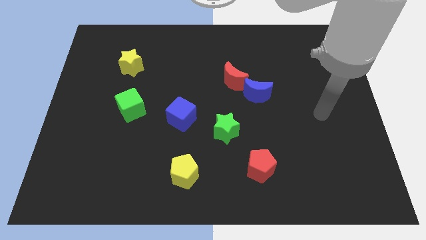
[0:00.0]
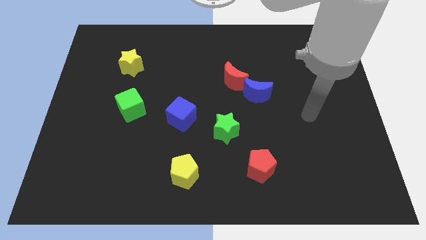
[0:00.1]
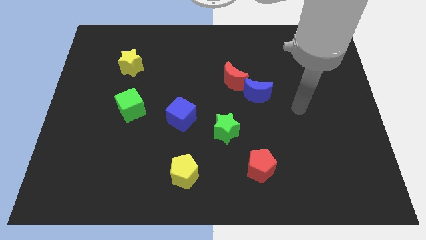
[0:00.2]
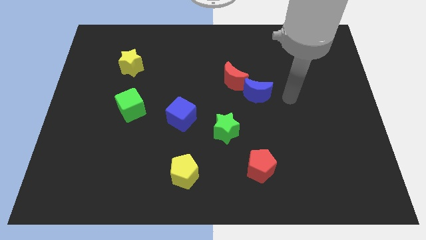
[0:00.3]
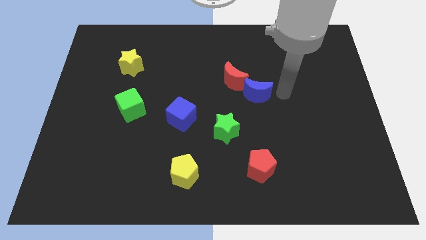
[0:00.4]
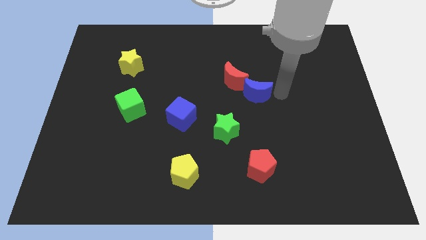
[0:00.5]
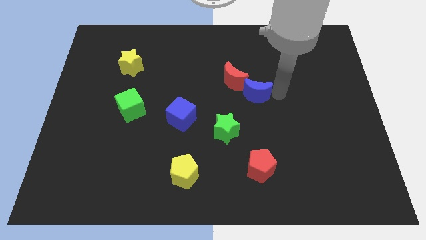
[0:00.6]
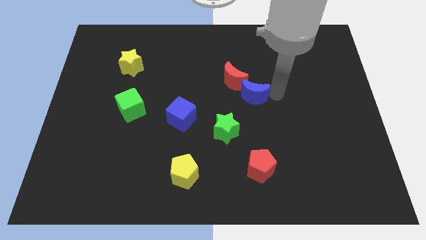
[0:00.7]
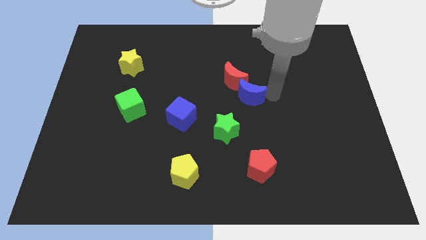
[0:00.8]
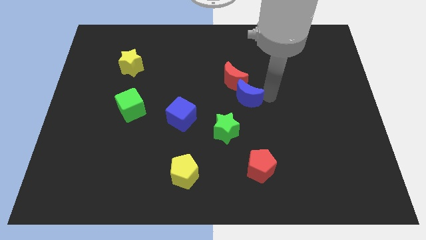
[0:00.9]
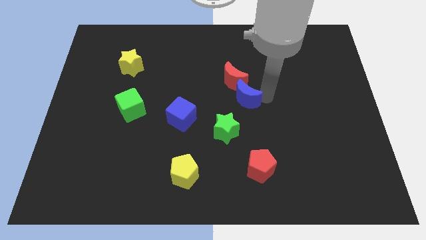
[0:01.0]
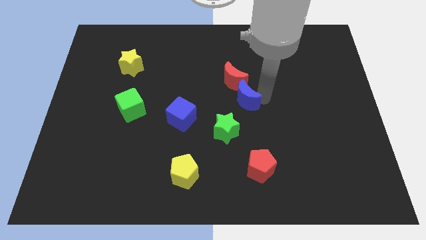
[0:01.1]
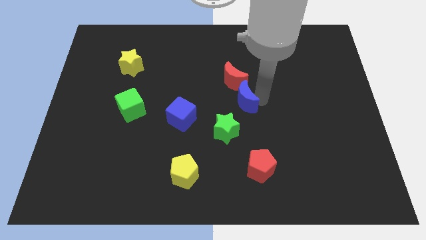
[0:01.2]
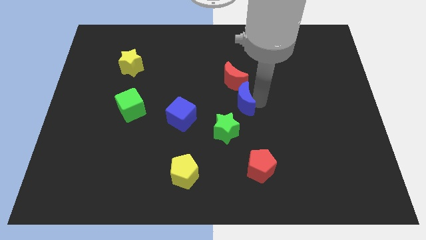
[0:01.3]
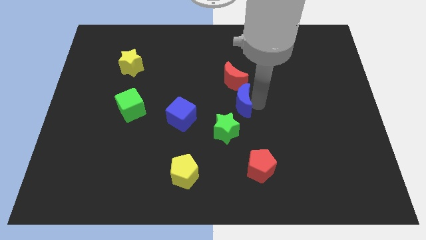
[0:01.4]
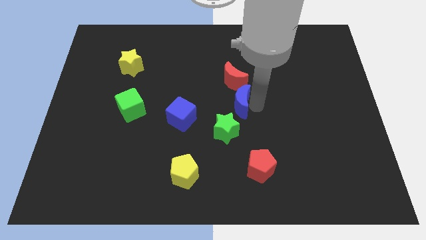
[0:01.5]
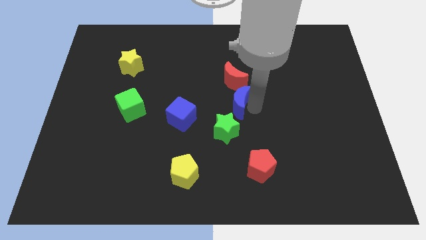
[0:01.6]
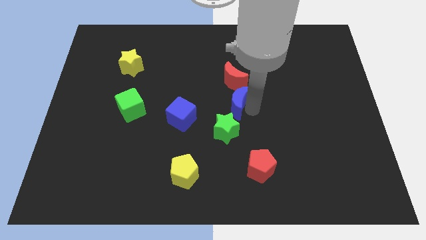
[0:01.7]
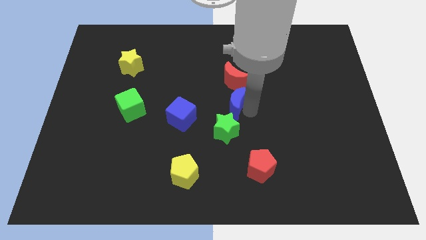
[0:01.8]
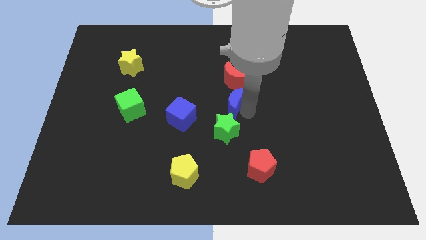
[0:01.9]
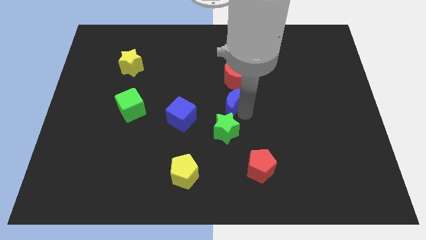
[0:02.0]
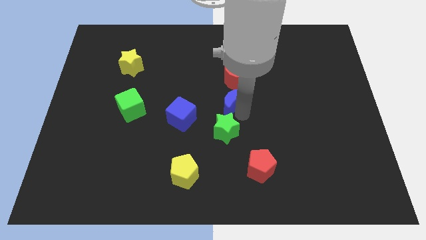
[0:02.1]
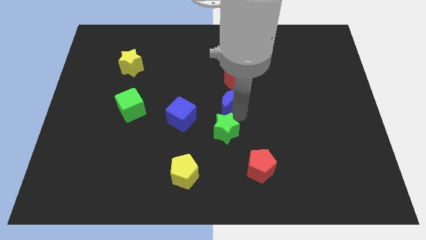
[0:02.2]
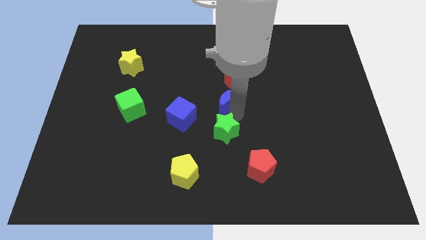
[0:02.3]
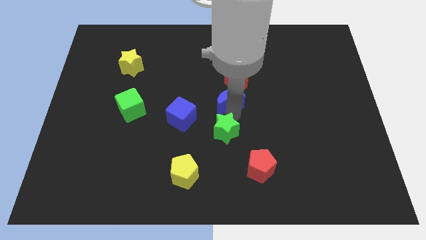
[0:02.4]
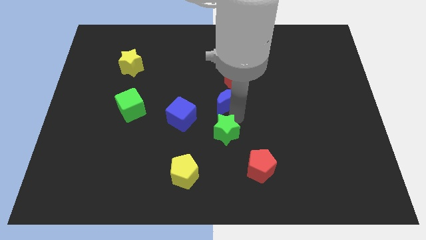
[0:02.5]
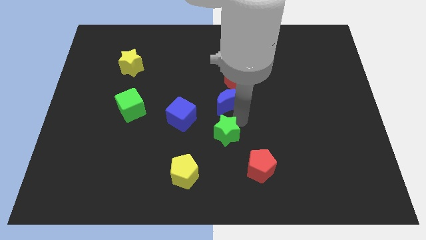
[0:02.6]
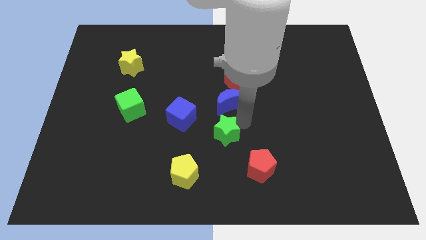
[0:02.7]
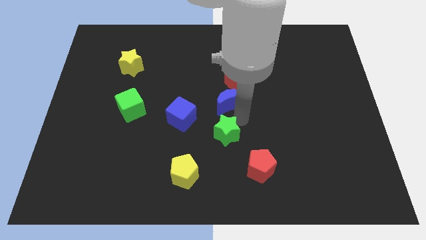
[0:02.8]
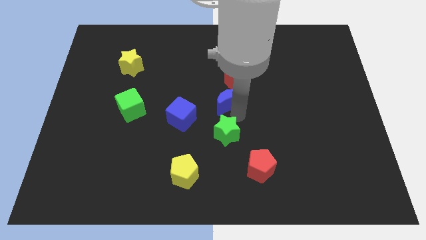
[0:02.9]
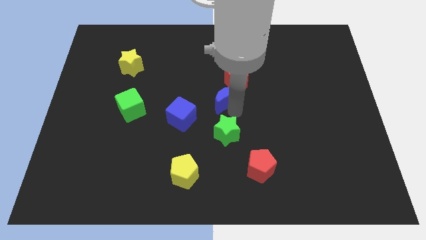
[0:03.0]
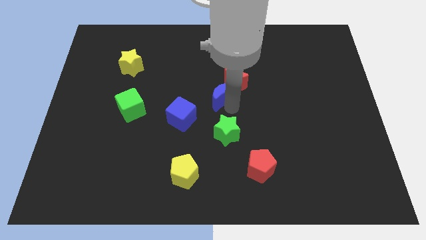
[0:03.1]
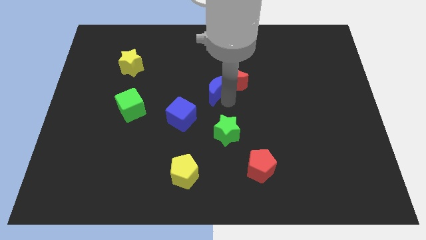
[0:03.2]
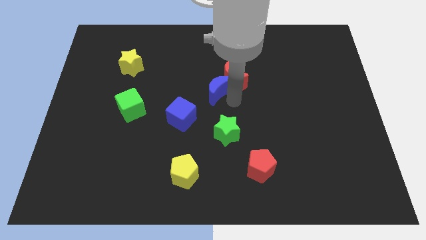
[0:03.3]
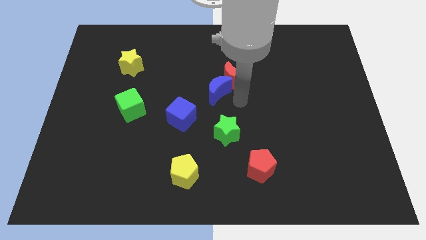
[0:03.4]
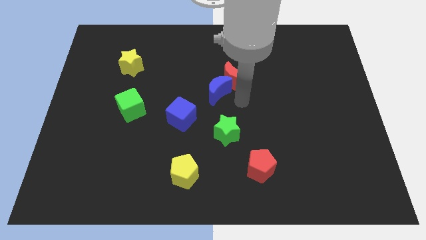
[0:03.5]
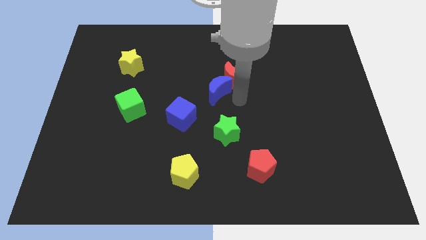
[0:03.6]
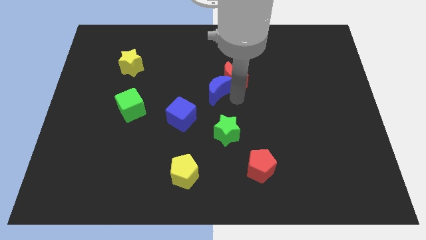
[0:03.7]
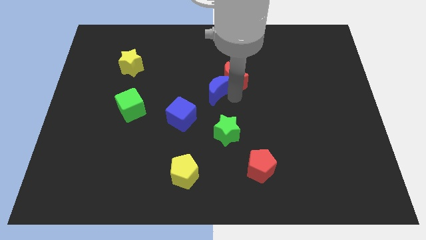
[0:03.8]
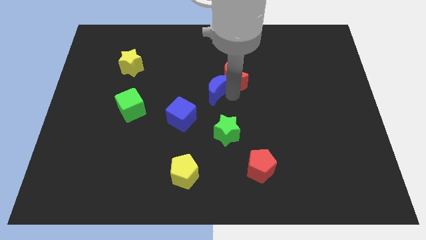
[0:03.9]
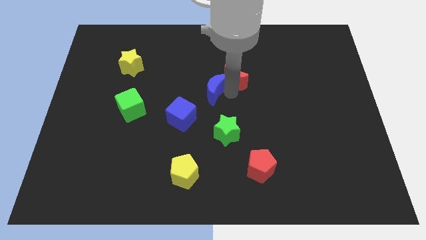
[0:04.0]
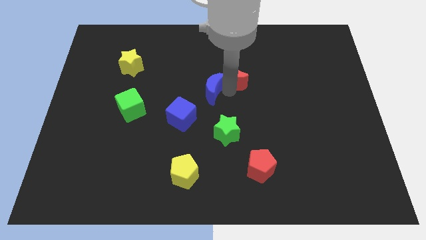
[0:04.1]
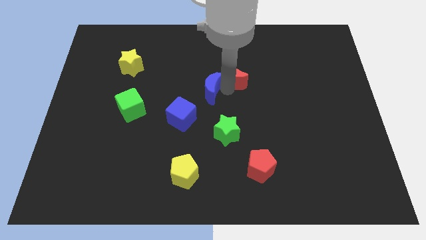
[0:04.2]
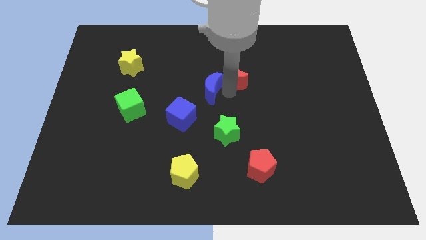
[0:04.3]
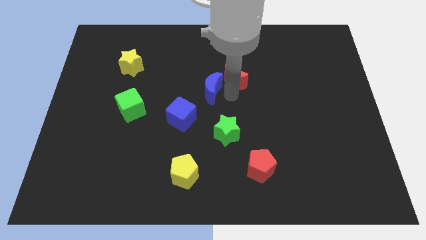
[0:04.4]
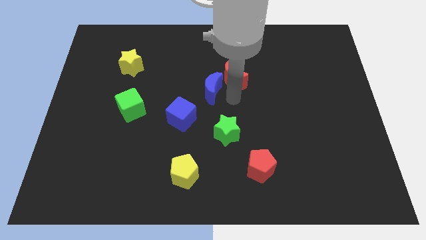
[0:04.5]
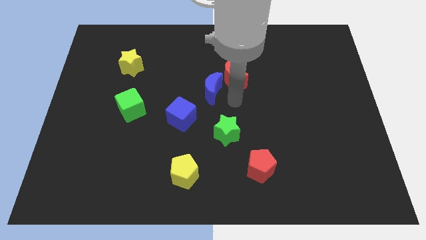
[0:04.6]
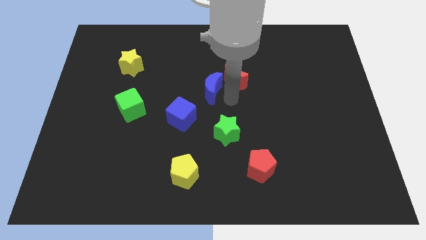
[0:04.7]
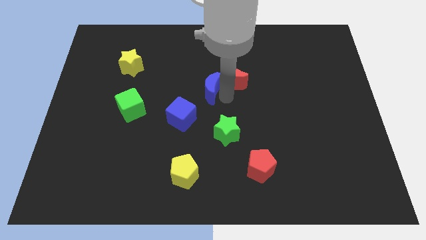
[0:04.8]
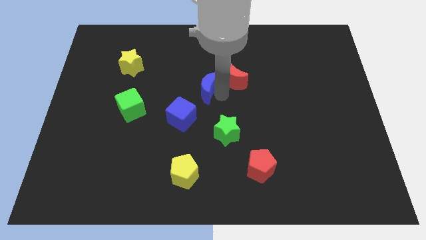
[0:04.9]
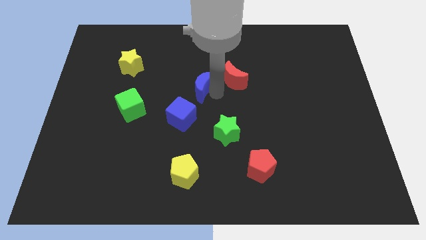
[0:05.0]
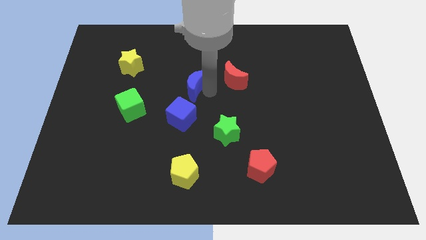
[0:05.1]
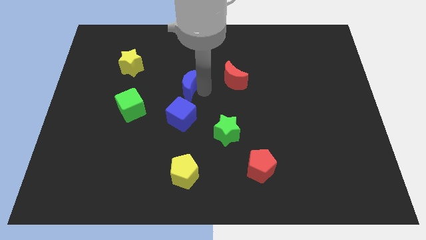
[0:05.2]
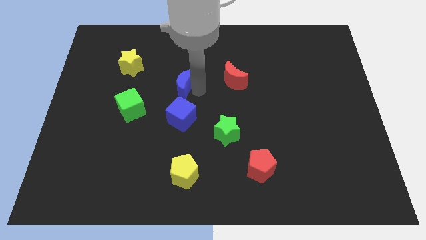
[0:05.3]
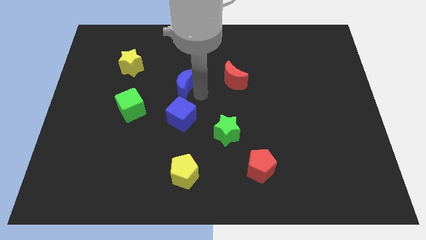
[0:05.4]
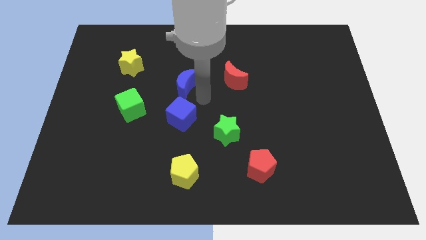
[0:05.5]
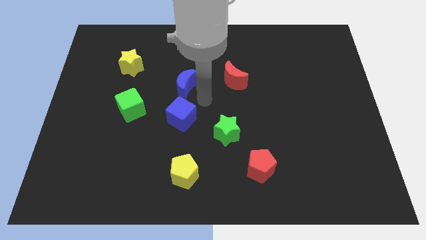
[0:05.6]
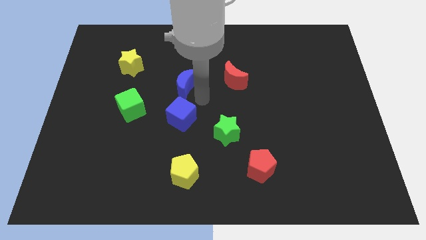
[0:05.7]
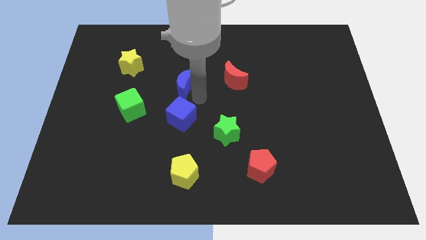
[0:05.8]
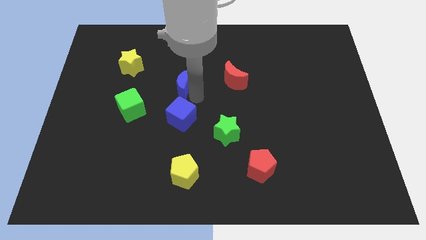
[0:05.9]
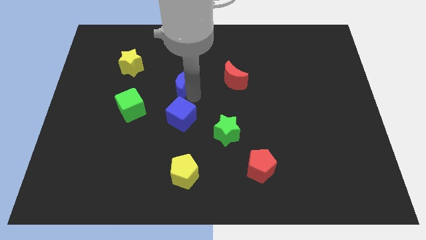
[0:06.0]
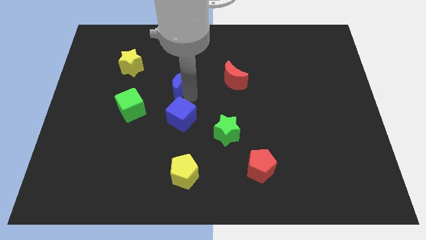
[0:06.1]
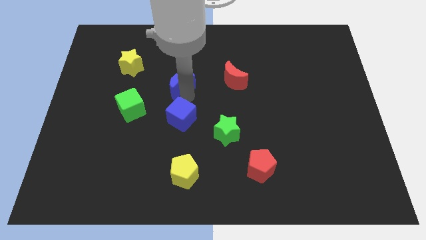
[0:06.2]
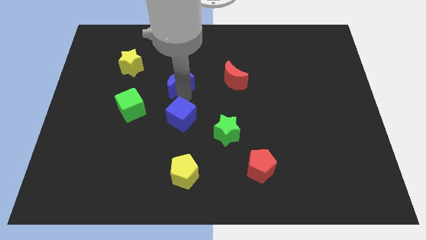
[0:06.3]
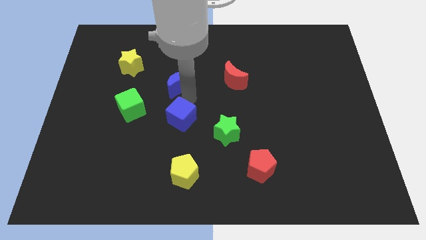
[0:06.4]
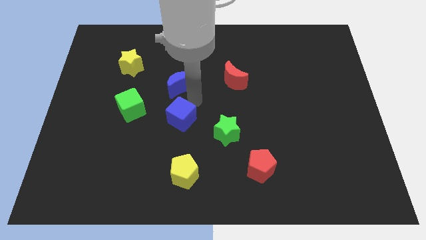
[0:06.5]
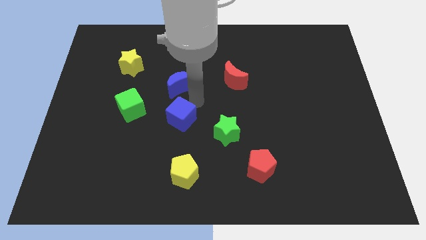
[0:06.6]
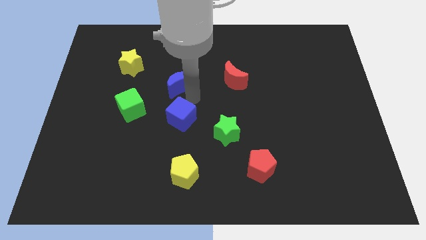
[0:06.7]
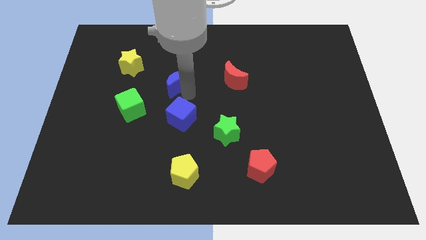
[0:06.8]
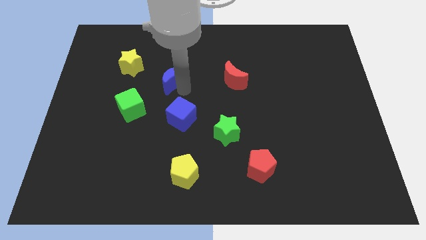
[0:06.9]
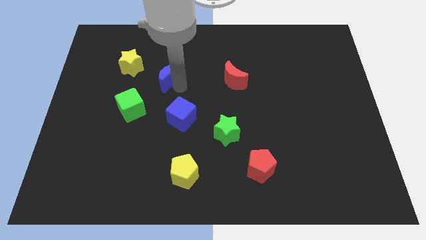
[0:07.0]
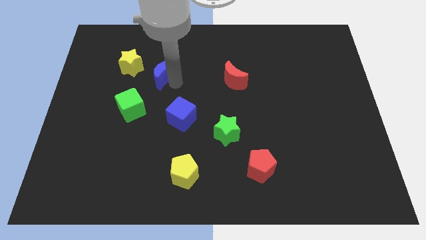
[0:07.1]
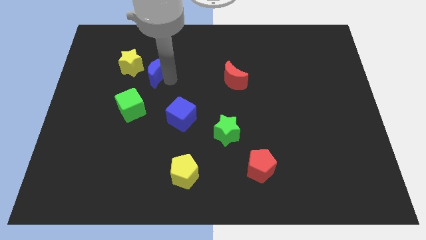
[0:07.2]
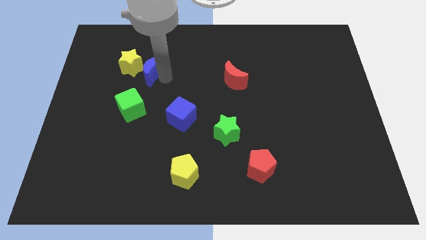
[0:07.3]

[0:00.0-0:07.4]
slide the blue moon close to the yellow star

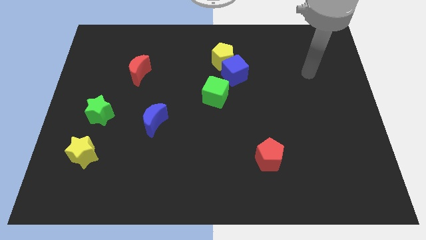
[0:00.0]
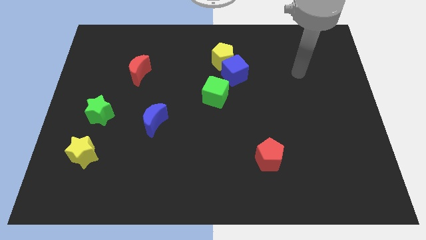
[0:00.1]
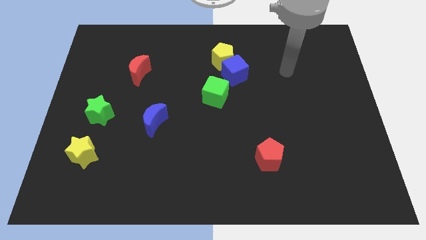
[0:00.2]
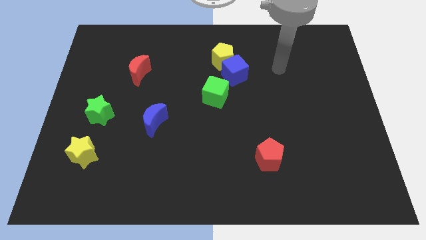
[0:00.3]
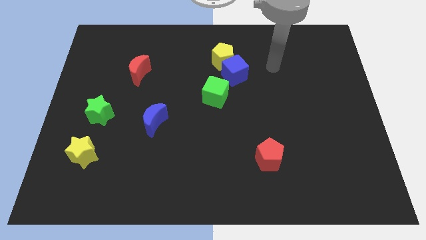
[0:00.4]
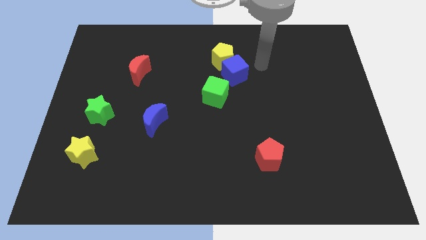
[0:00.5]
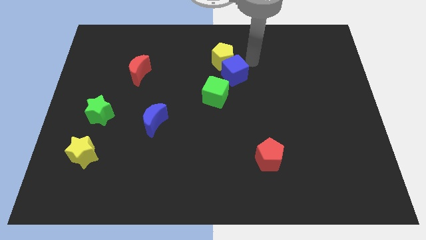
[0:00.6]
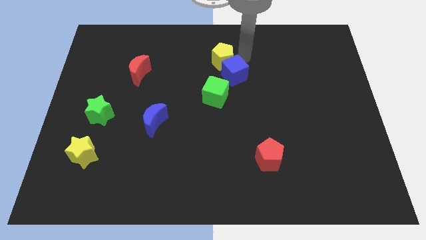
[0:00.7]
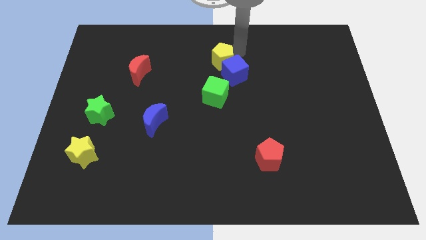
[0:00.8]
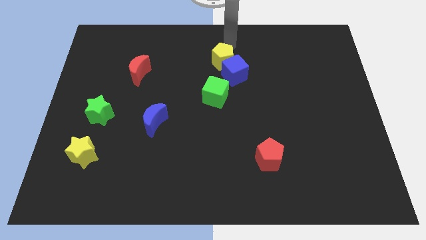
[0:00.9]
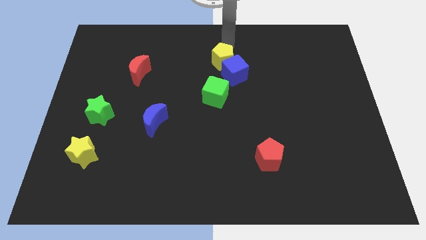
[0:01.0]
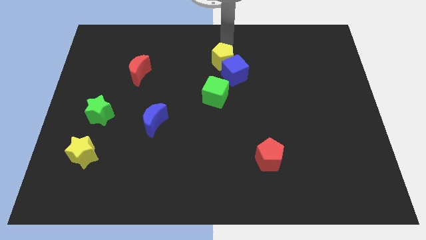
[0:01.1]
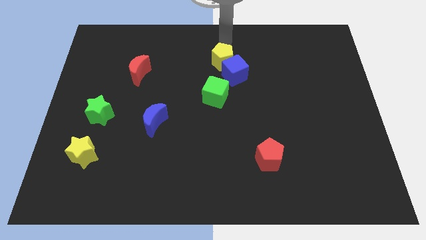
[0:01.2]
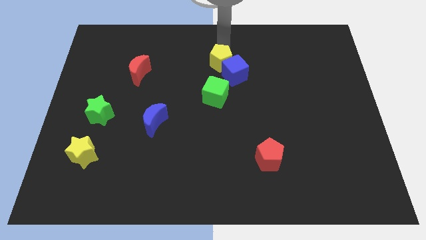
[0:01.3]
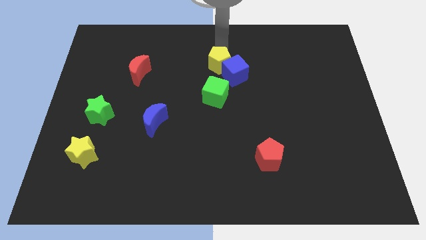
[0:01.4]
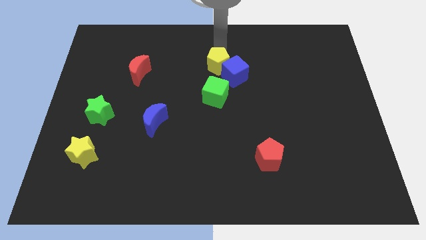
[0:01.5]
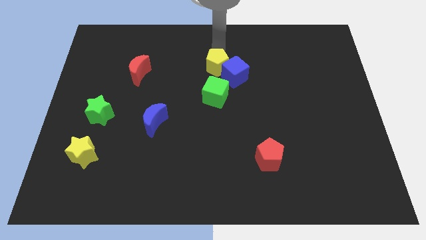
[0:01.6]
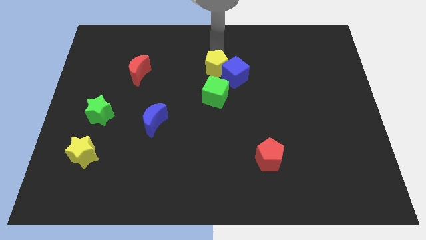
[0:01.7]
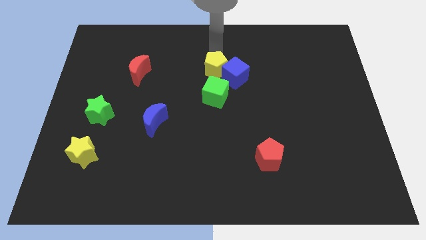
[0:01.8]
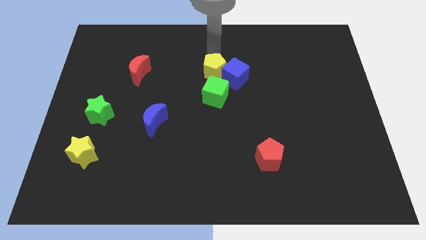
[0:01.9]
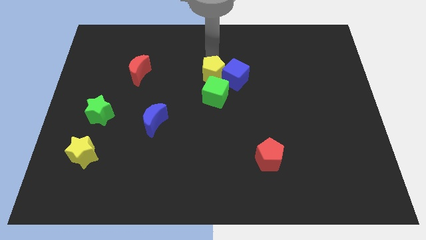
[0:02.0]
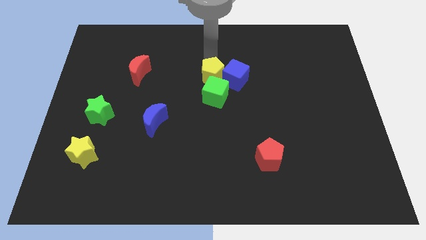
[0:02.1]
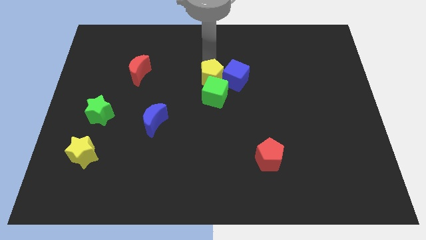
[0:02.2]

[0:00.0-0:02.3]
slide the yellow pentagon to the green cube
